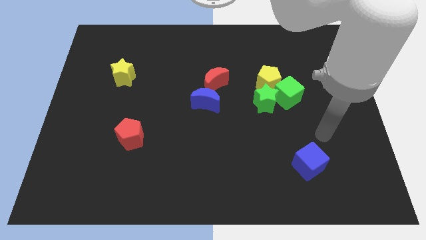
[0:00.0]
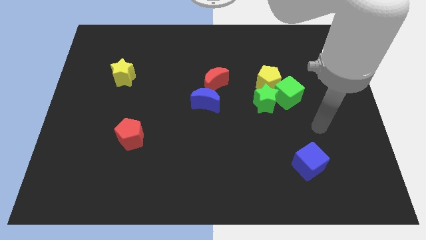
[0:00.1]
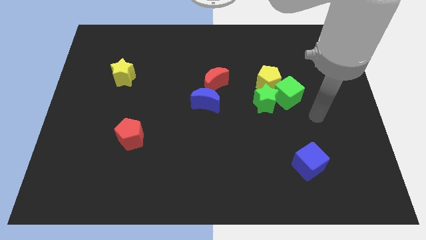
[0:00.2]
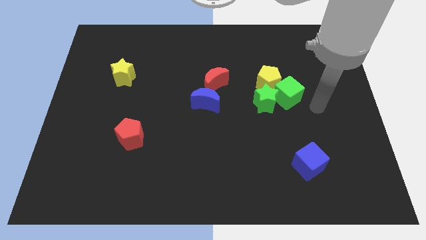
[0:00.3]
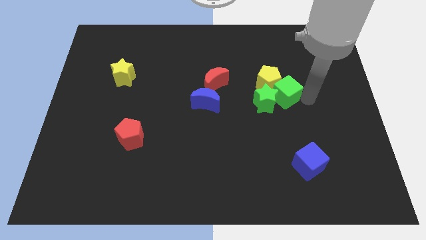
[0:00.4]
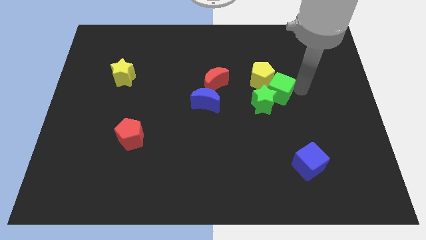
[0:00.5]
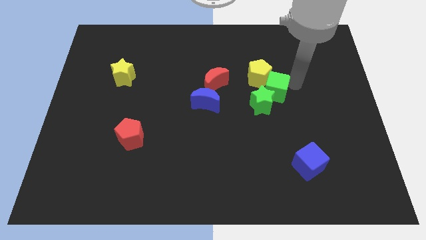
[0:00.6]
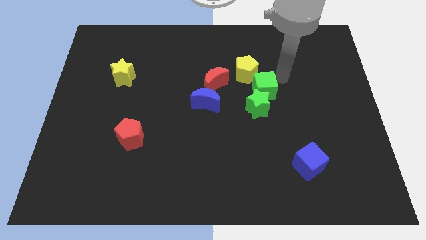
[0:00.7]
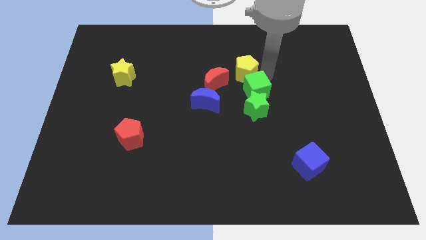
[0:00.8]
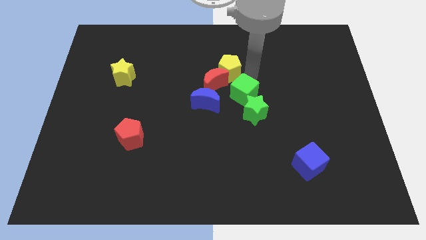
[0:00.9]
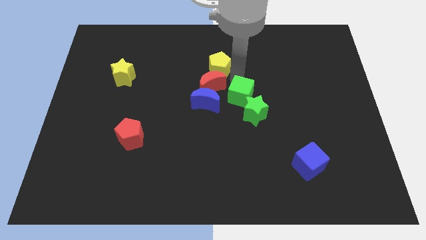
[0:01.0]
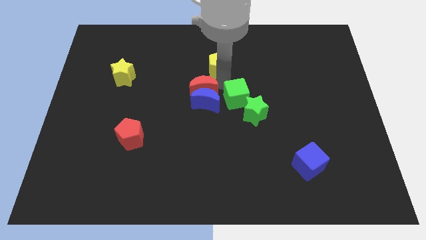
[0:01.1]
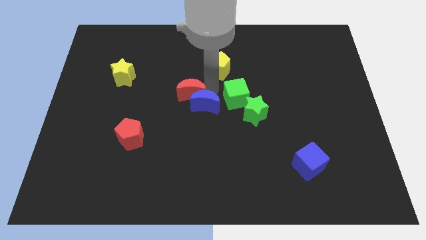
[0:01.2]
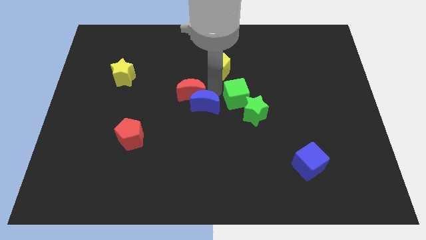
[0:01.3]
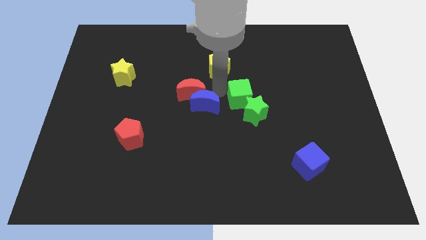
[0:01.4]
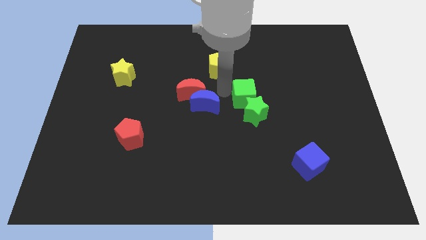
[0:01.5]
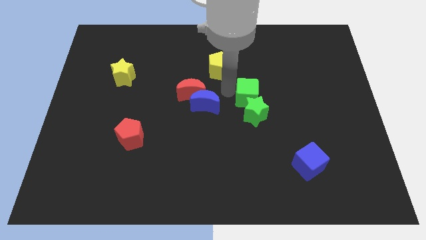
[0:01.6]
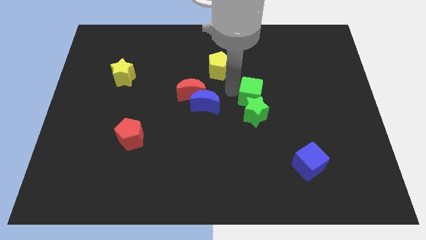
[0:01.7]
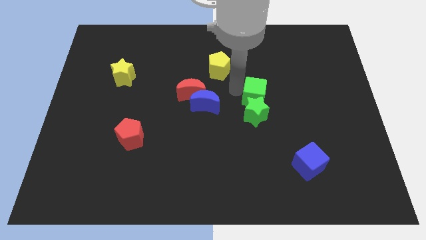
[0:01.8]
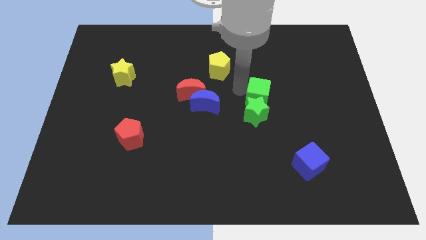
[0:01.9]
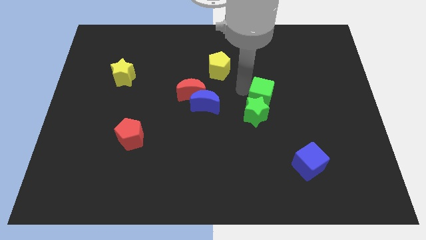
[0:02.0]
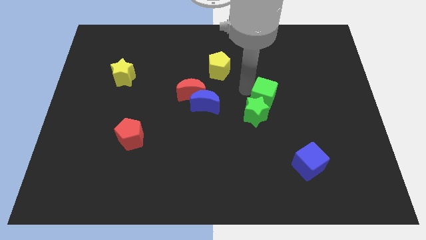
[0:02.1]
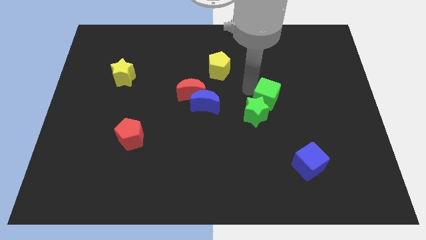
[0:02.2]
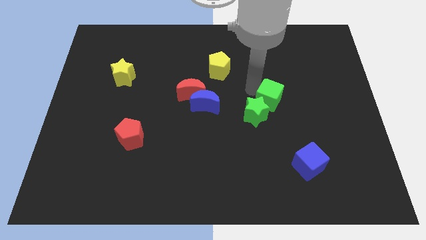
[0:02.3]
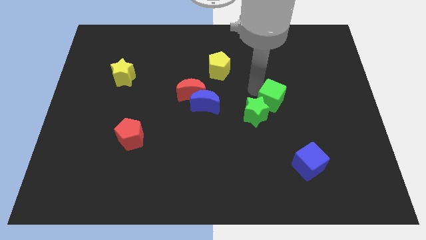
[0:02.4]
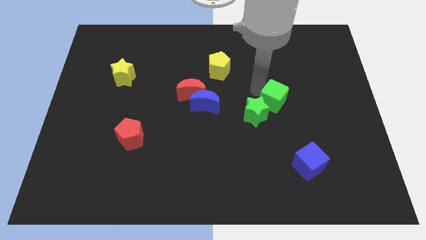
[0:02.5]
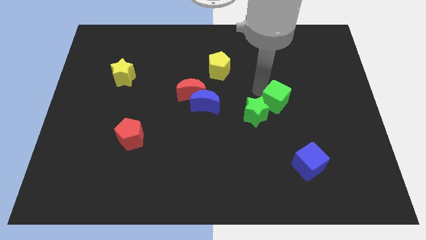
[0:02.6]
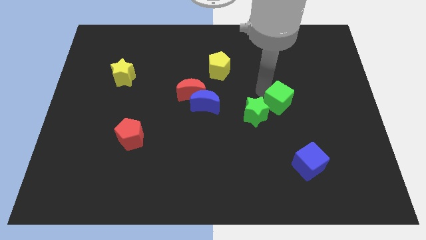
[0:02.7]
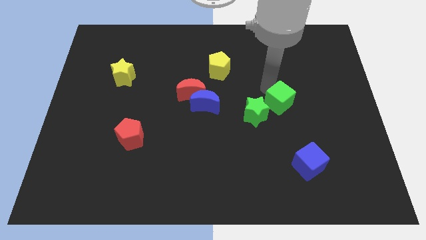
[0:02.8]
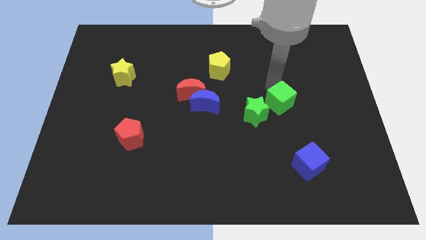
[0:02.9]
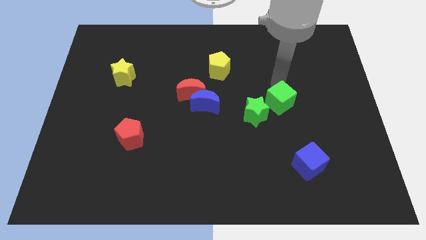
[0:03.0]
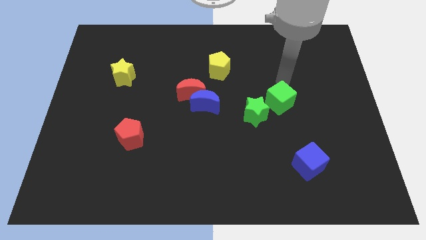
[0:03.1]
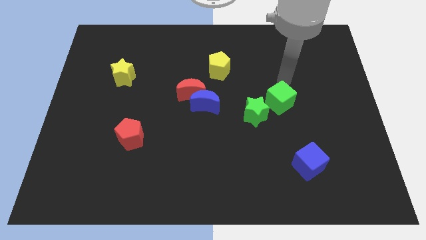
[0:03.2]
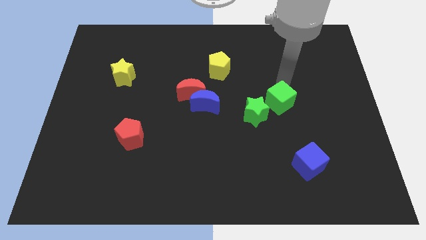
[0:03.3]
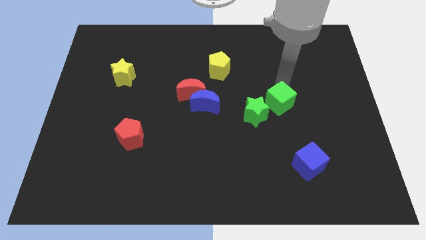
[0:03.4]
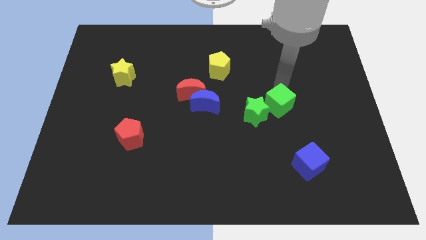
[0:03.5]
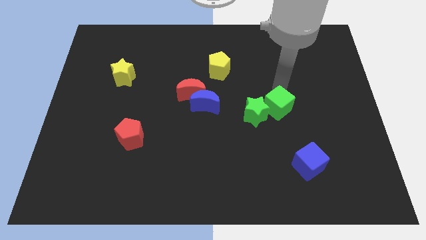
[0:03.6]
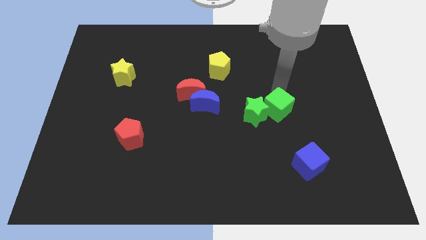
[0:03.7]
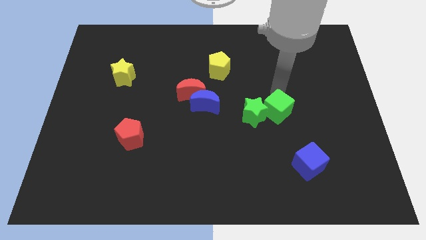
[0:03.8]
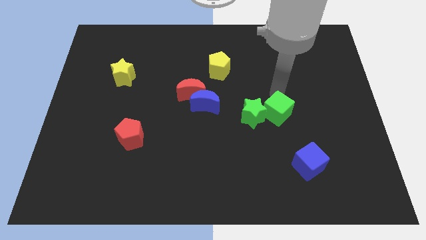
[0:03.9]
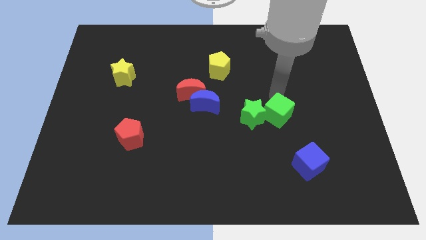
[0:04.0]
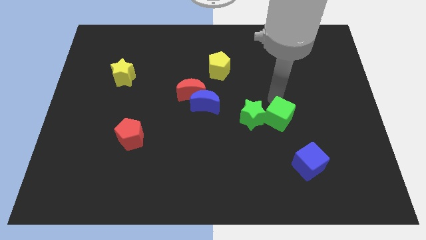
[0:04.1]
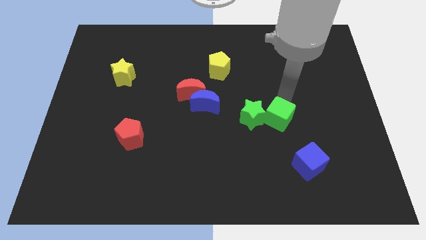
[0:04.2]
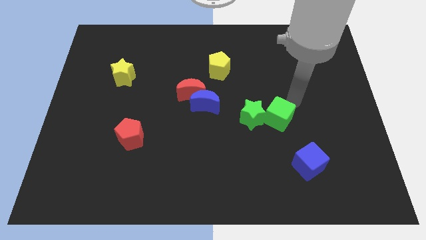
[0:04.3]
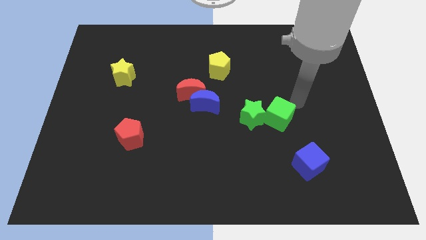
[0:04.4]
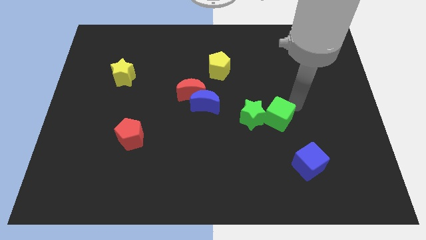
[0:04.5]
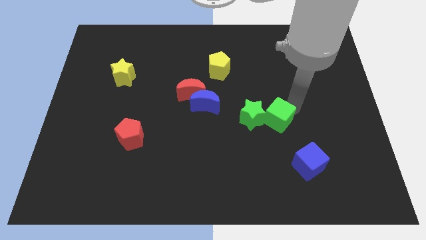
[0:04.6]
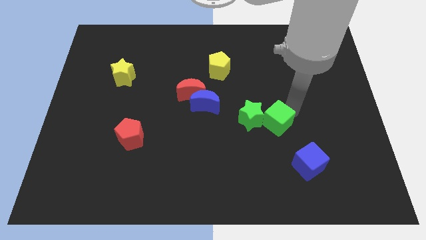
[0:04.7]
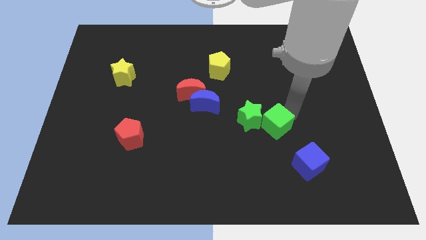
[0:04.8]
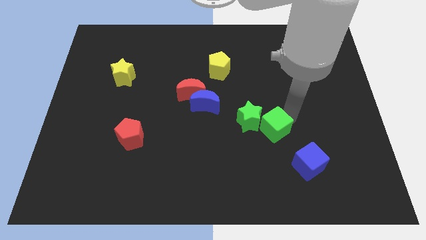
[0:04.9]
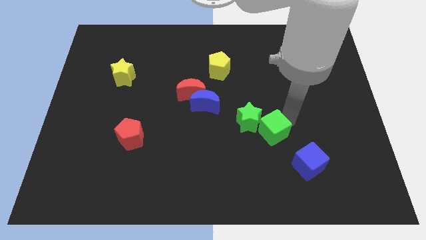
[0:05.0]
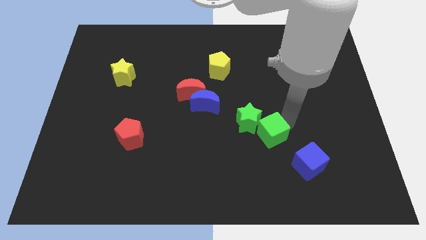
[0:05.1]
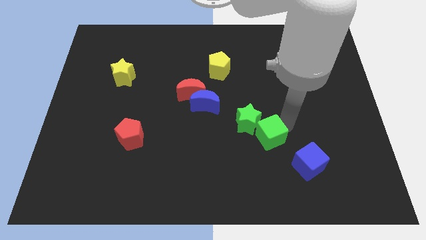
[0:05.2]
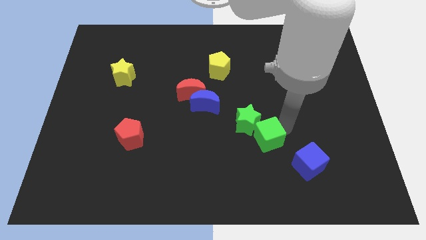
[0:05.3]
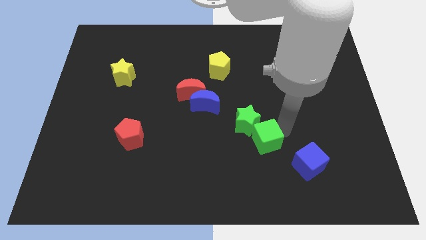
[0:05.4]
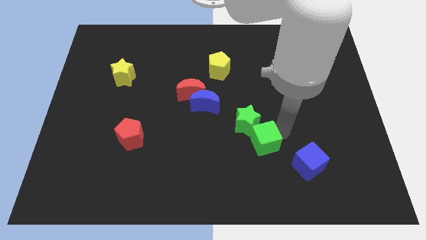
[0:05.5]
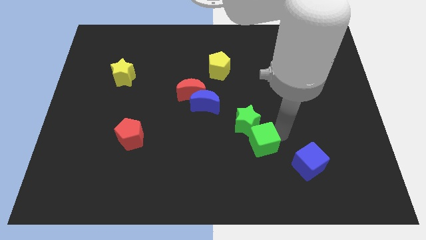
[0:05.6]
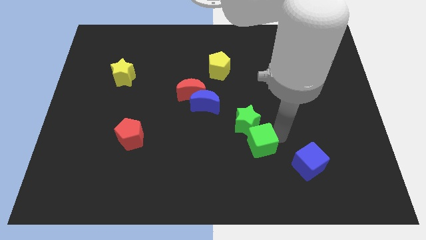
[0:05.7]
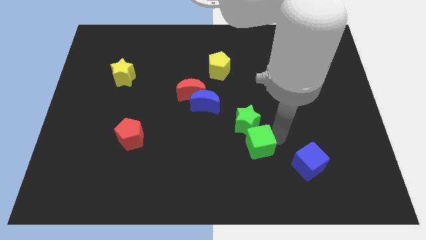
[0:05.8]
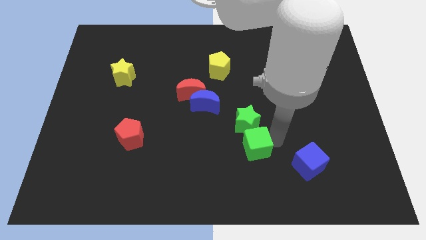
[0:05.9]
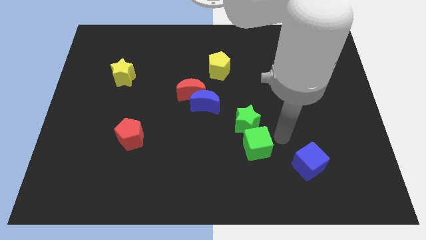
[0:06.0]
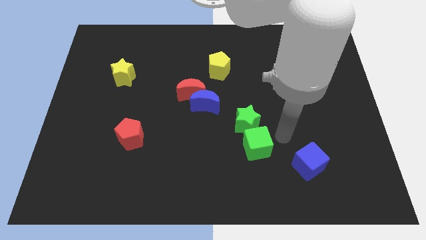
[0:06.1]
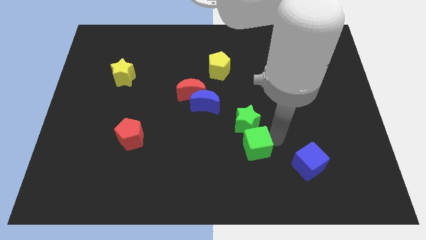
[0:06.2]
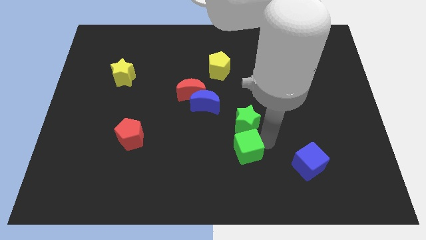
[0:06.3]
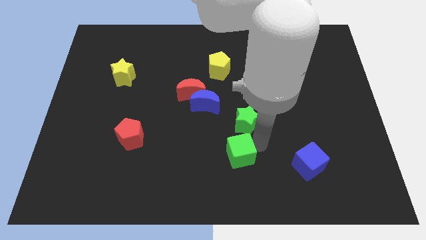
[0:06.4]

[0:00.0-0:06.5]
slide the green cube down and then to the left

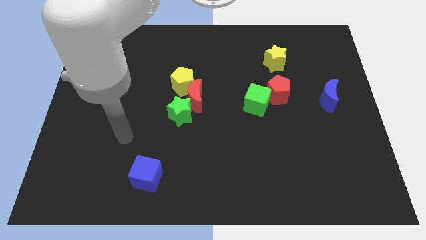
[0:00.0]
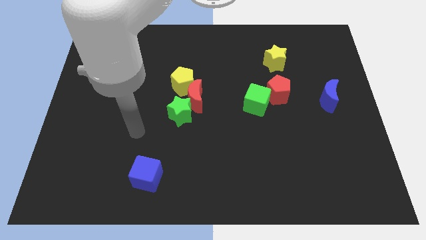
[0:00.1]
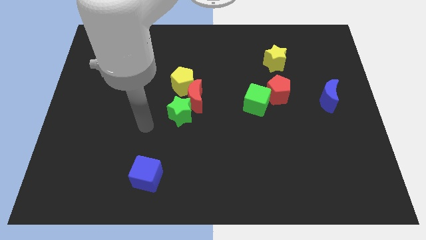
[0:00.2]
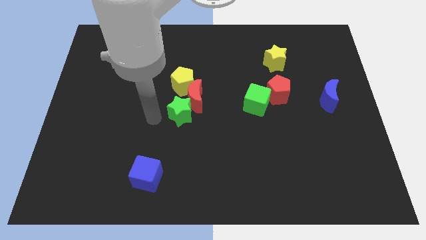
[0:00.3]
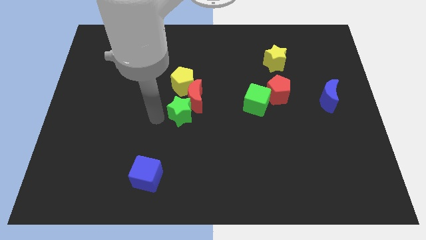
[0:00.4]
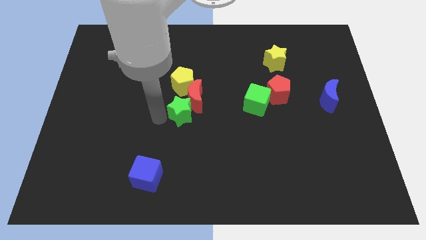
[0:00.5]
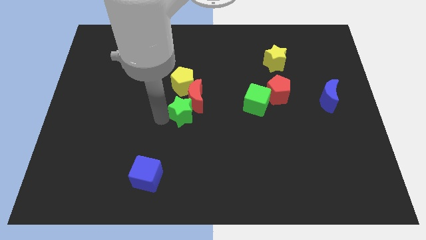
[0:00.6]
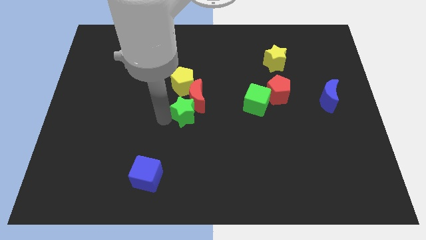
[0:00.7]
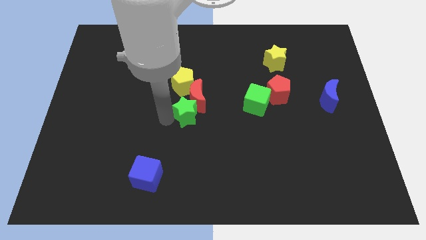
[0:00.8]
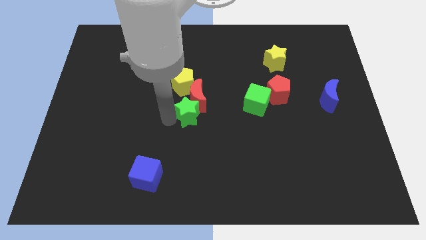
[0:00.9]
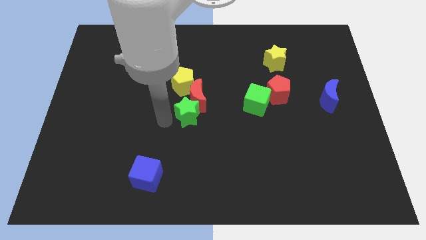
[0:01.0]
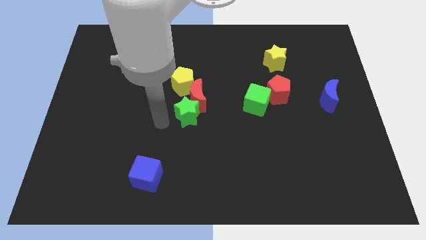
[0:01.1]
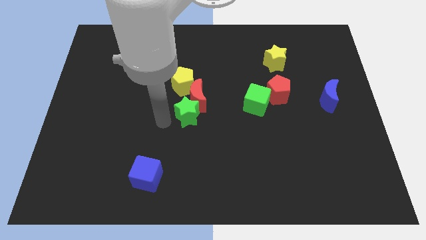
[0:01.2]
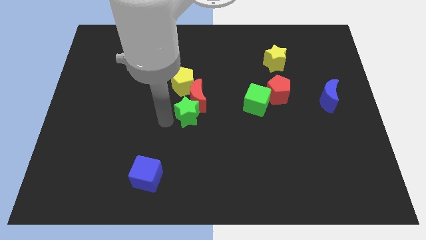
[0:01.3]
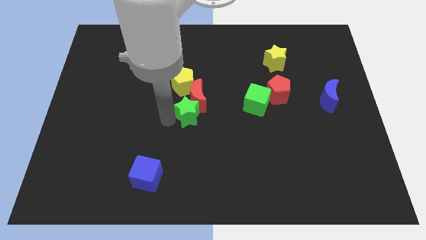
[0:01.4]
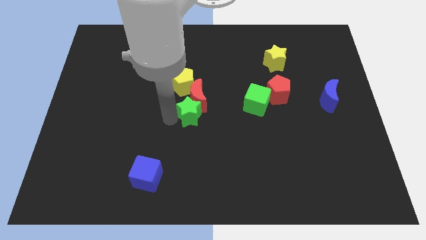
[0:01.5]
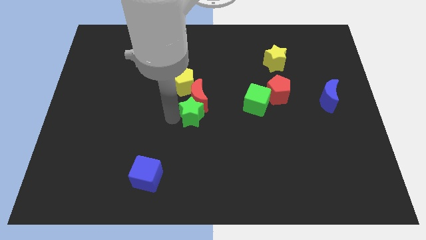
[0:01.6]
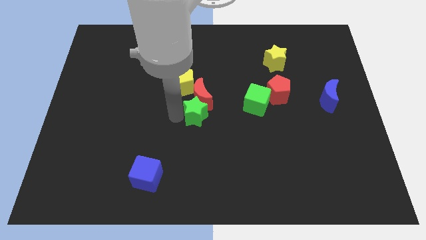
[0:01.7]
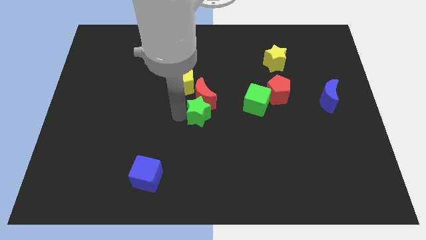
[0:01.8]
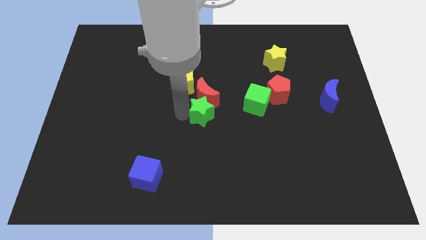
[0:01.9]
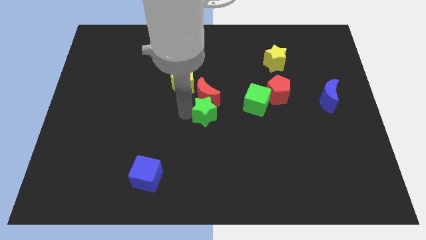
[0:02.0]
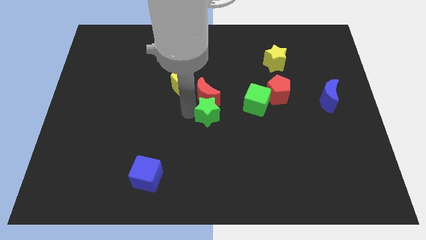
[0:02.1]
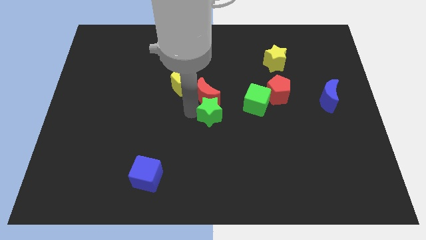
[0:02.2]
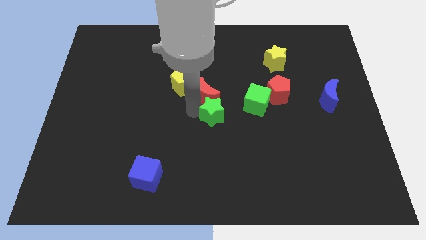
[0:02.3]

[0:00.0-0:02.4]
slightly slide the green star to the right
